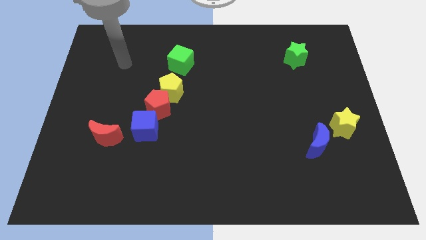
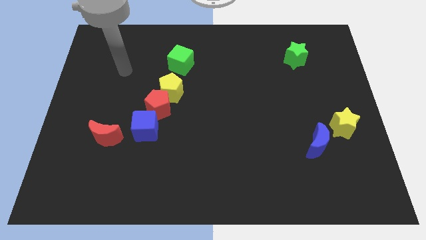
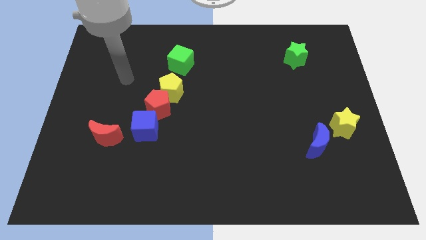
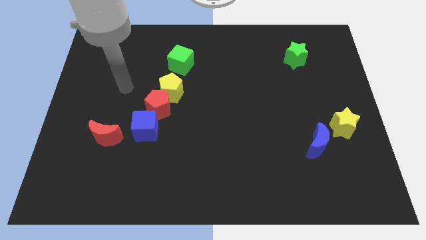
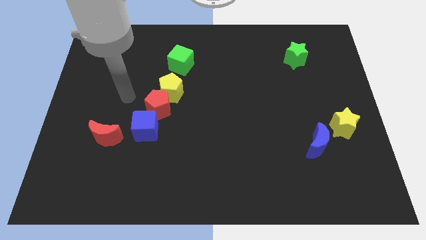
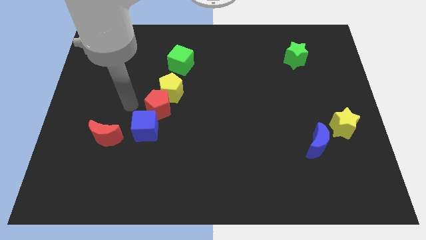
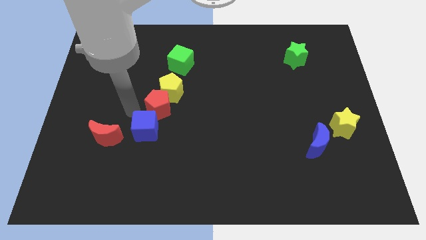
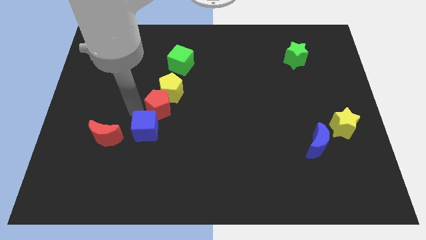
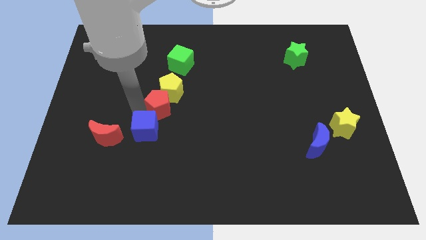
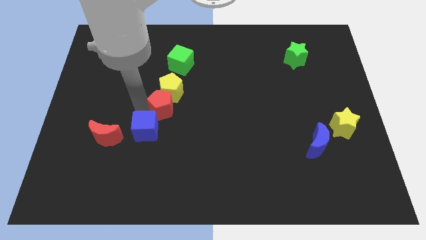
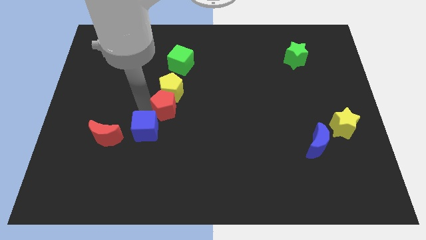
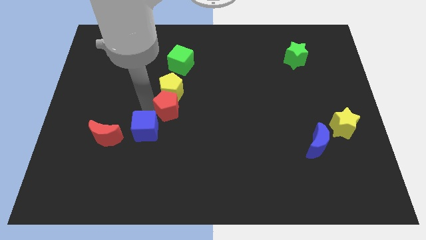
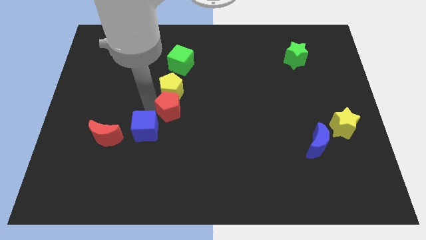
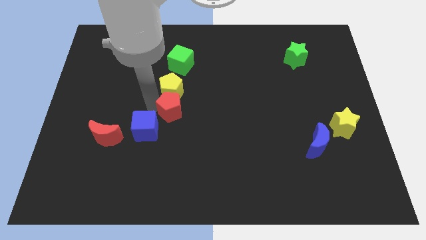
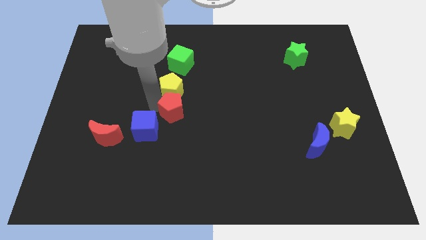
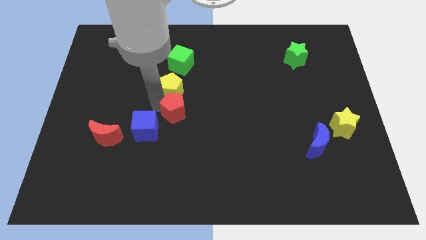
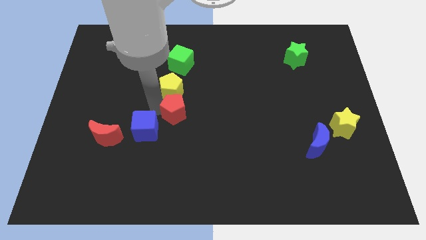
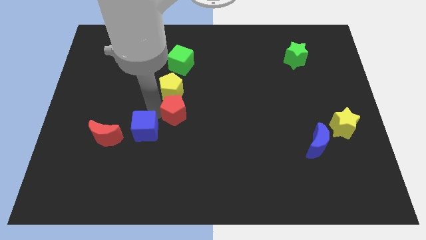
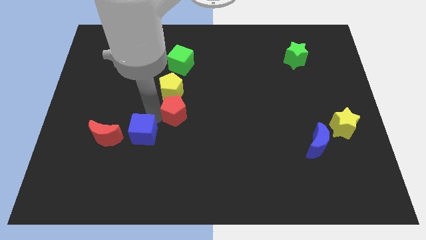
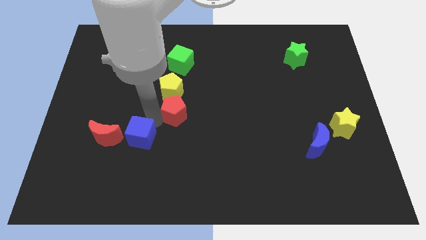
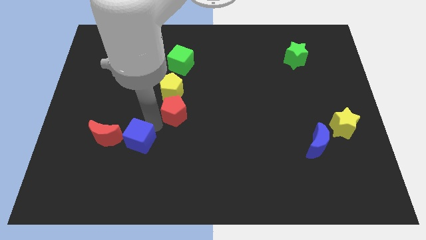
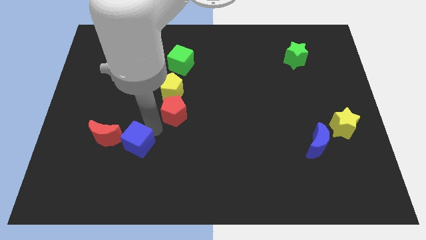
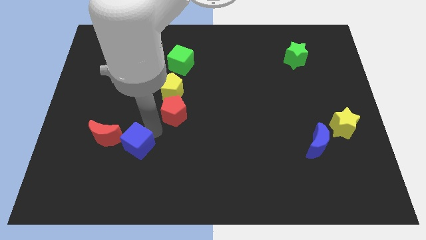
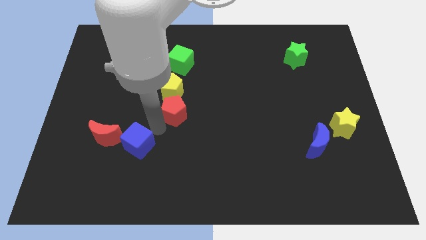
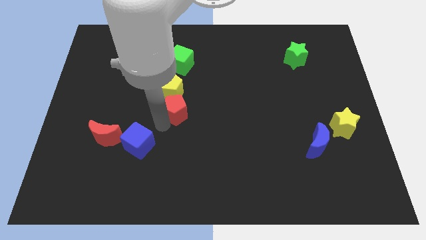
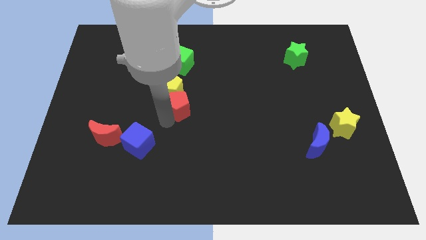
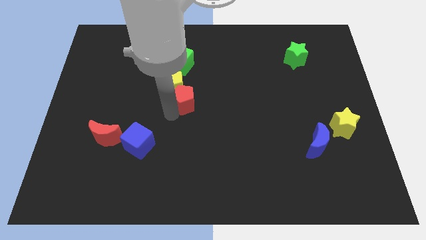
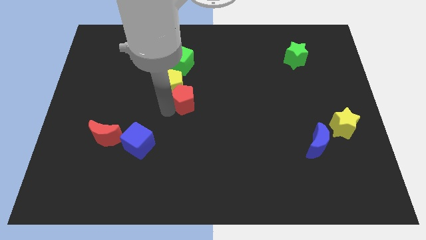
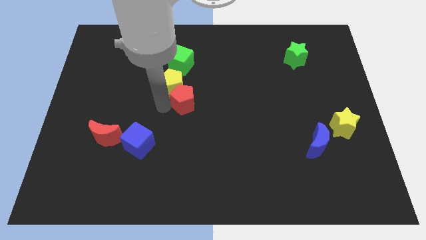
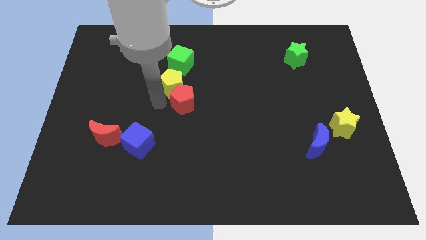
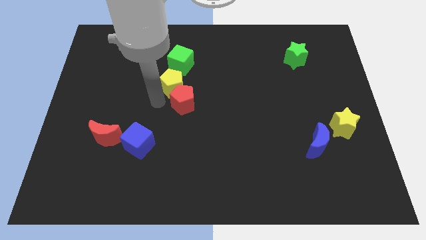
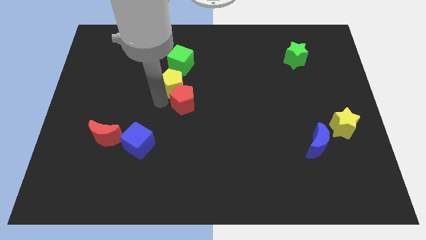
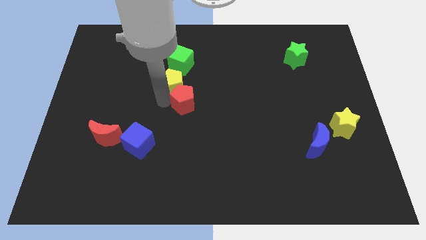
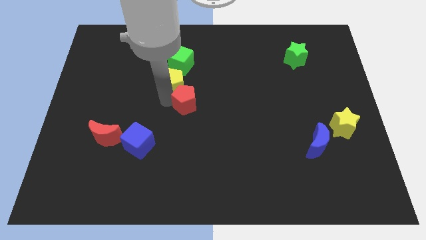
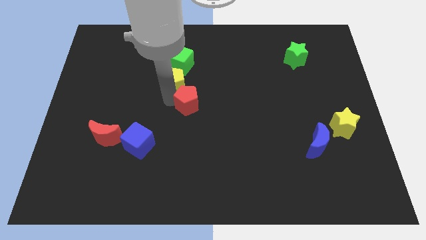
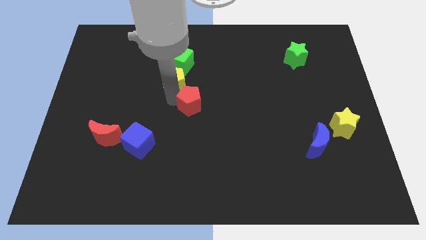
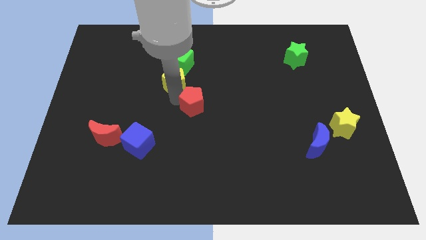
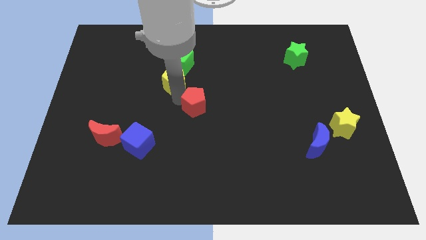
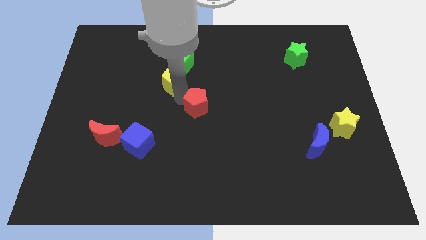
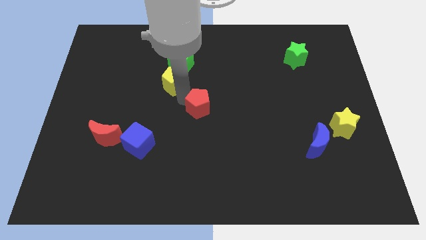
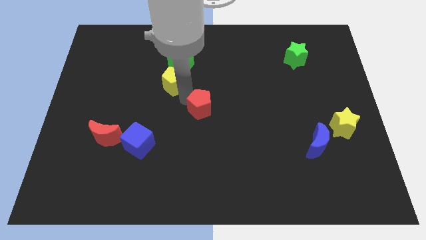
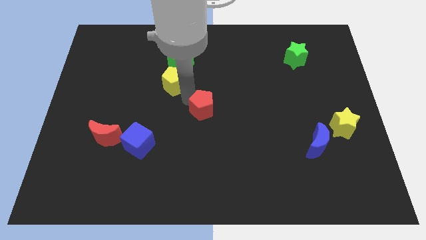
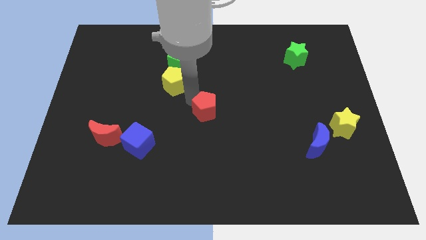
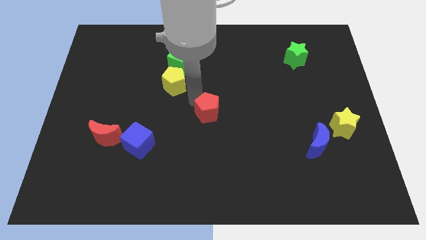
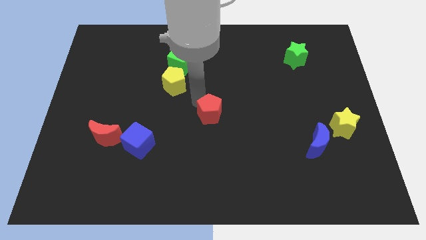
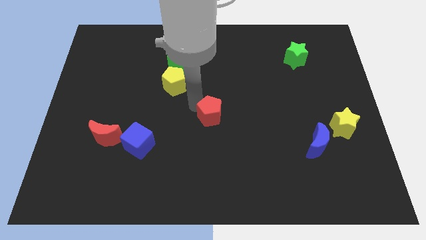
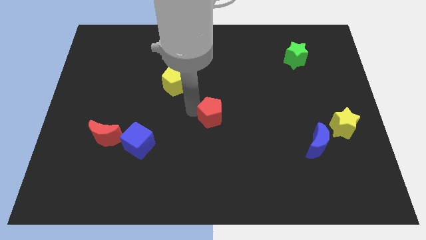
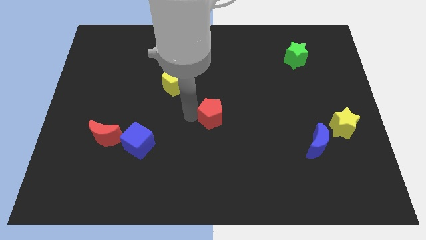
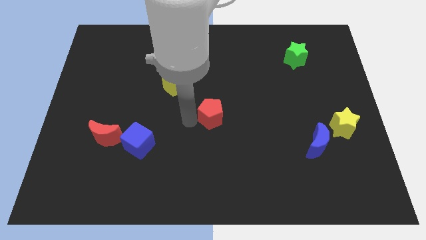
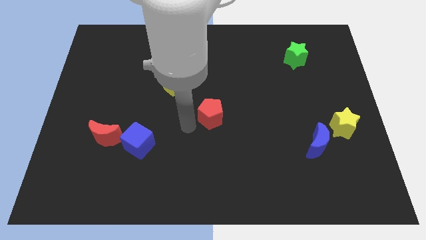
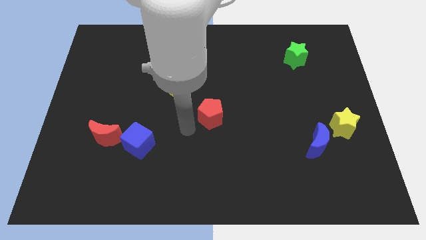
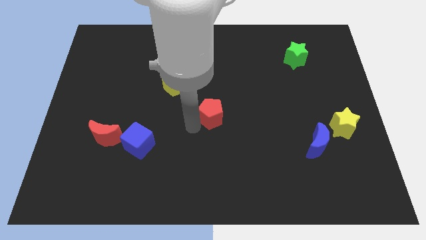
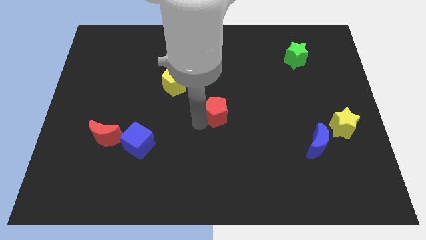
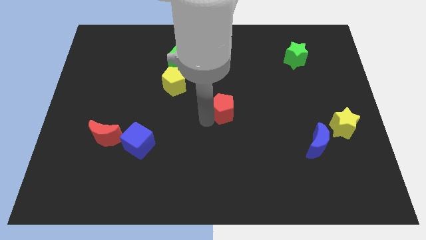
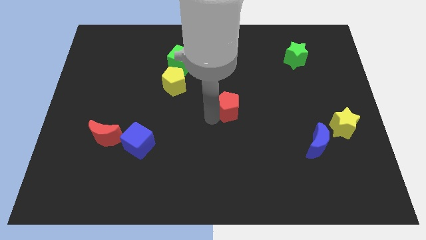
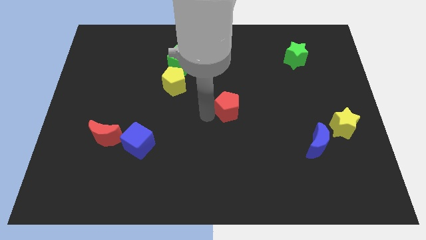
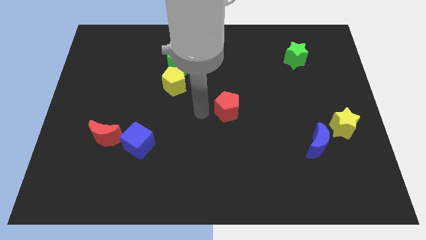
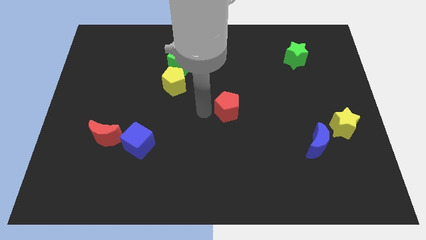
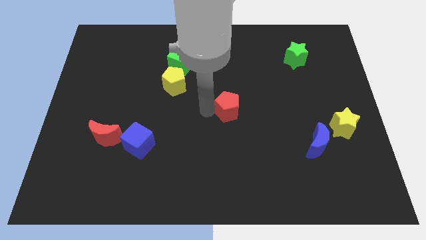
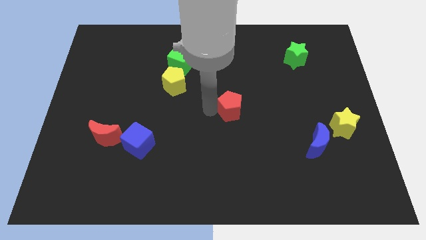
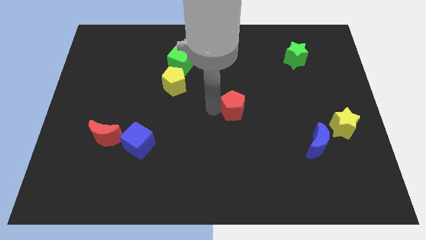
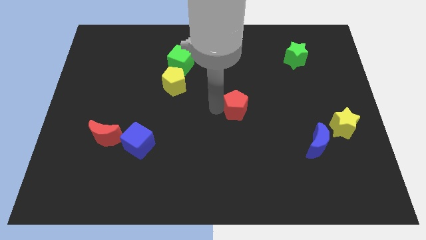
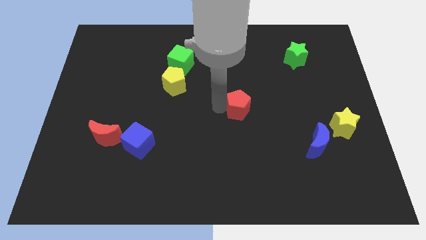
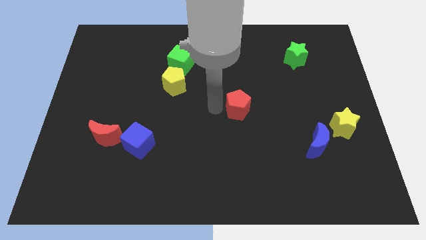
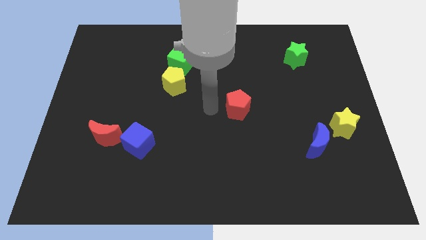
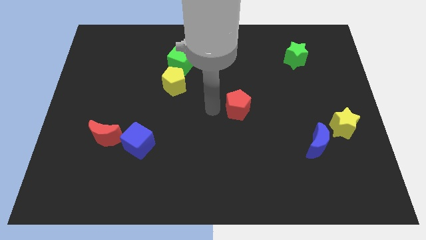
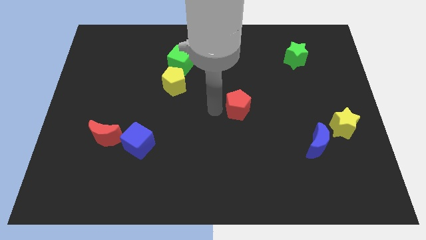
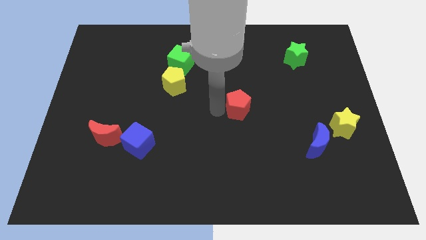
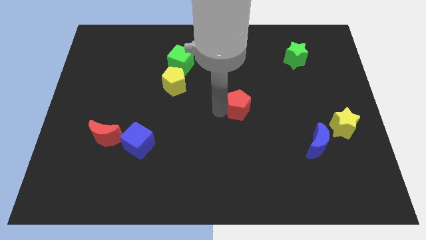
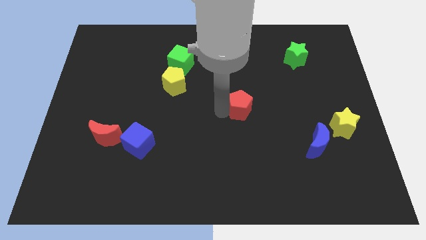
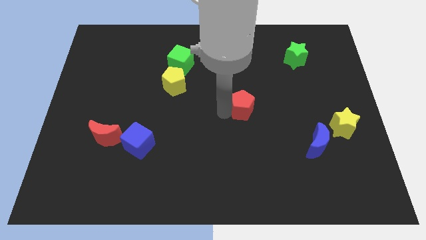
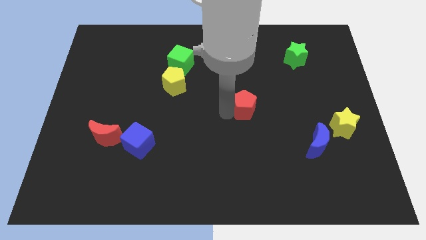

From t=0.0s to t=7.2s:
push the red pentagon to the right

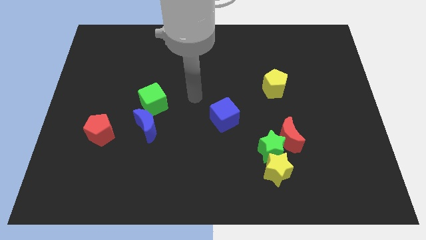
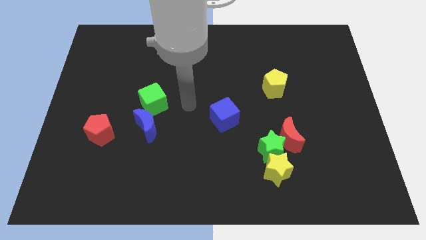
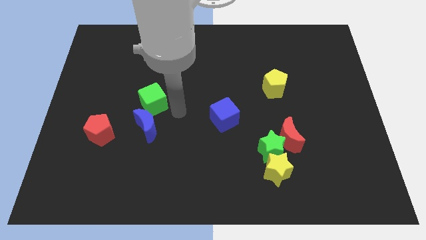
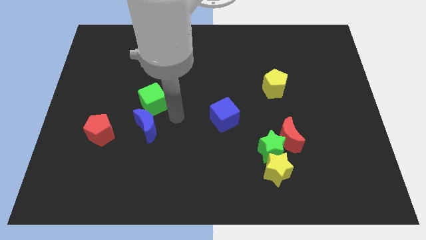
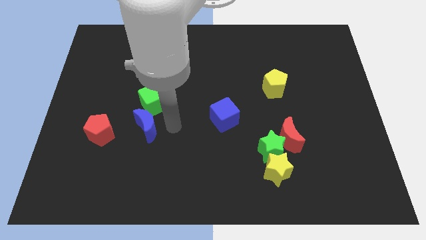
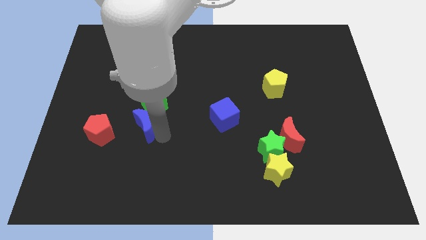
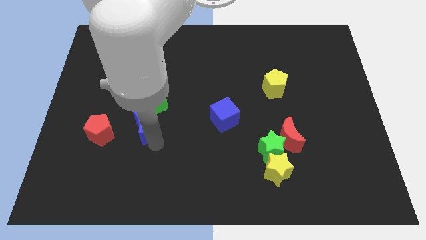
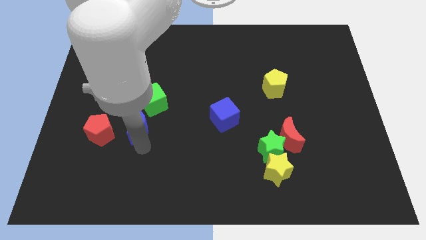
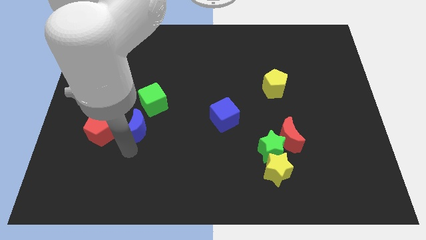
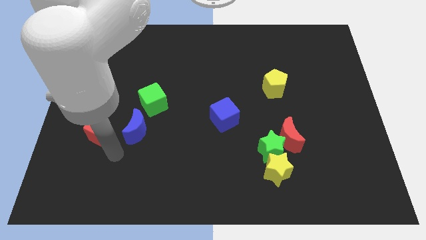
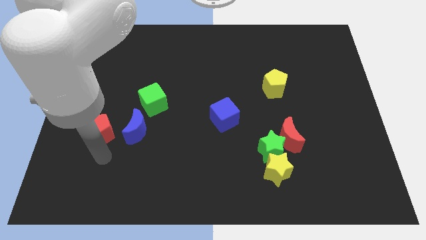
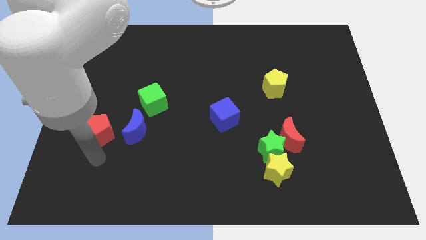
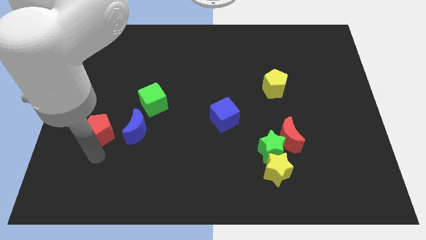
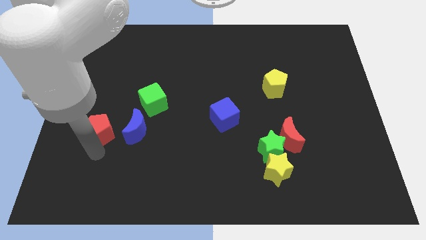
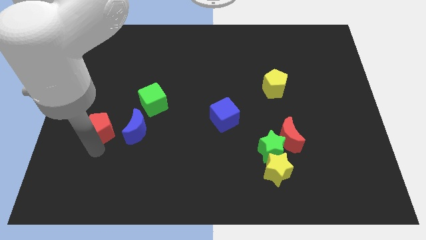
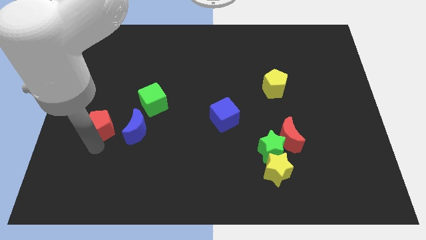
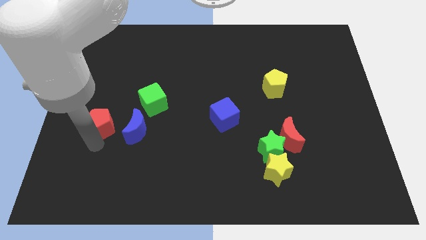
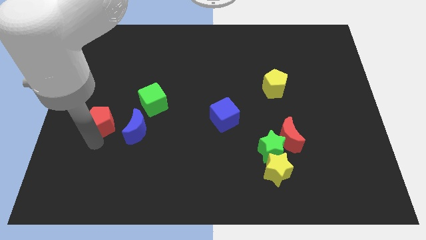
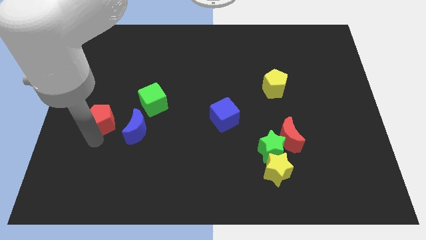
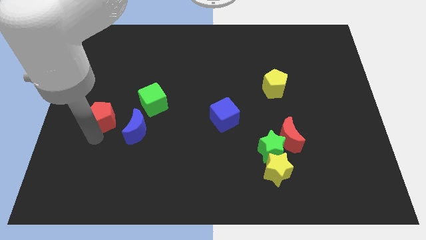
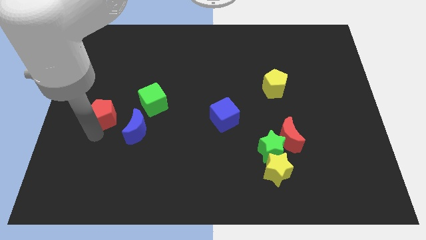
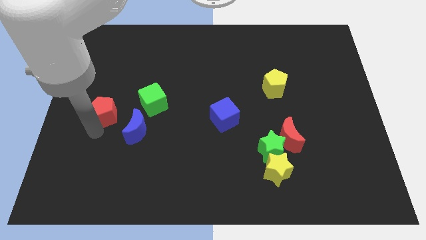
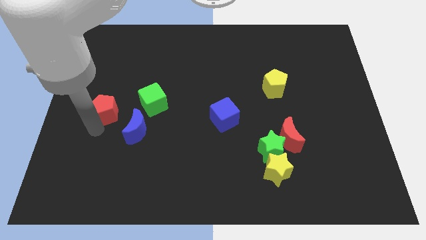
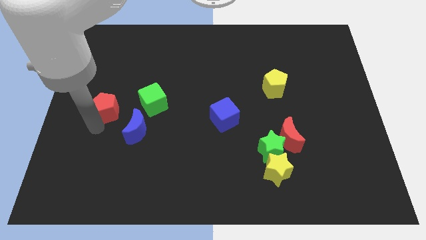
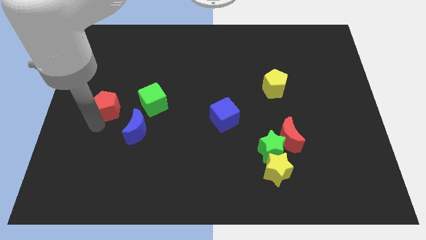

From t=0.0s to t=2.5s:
push the red pentagon up somewhat
